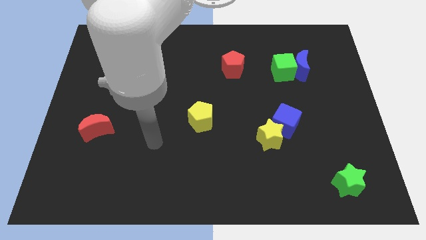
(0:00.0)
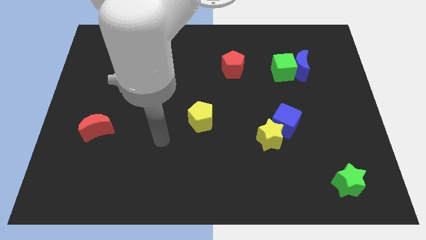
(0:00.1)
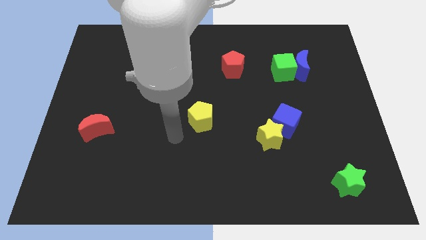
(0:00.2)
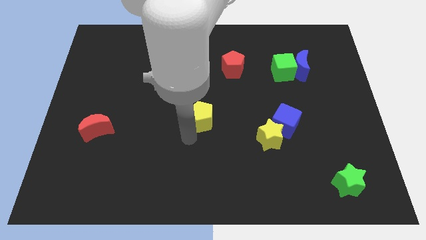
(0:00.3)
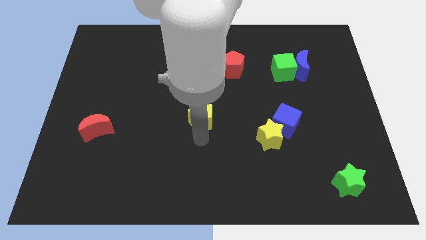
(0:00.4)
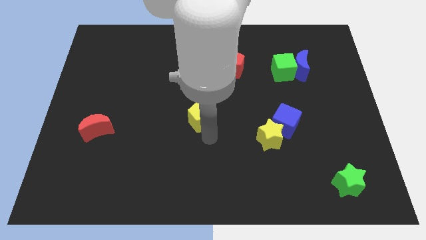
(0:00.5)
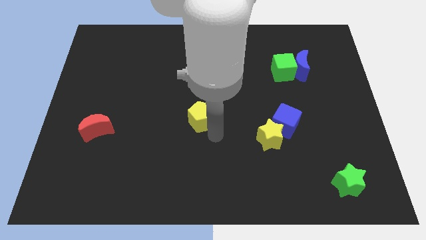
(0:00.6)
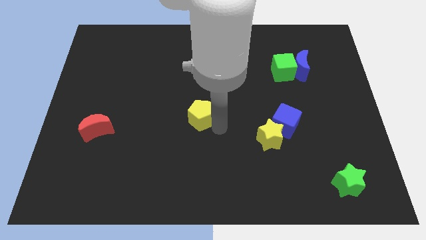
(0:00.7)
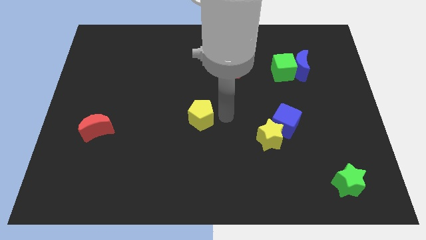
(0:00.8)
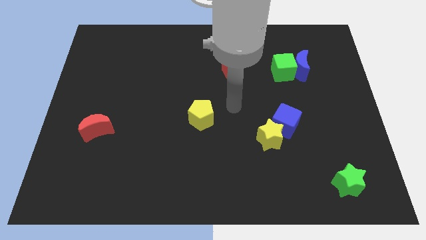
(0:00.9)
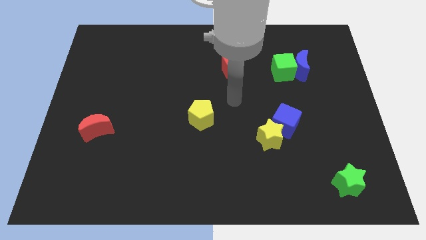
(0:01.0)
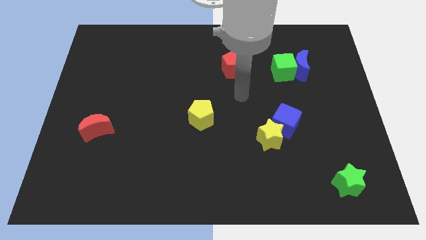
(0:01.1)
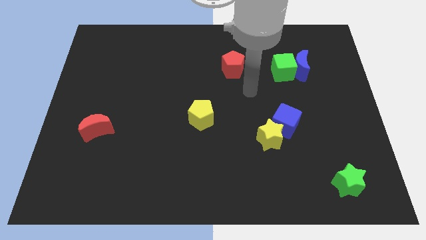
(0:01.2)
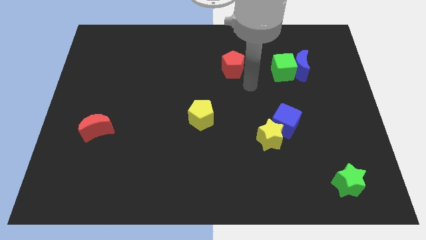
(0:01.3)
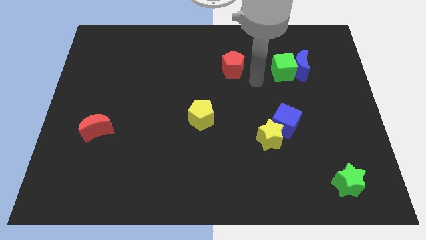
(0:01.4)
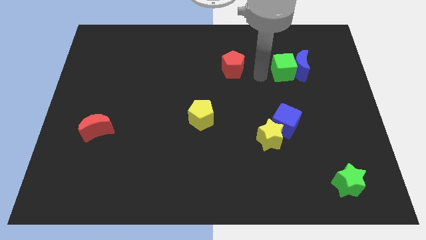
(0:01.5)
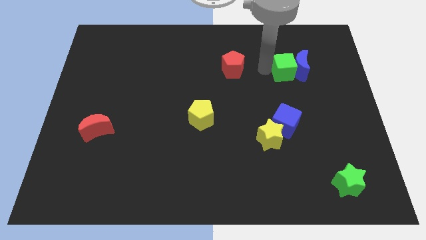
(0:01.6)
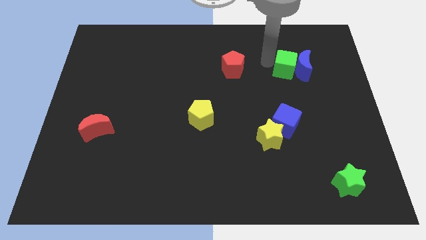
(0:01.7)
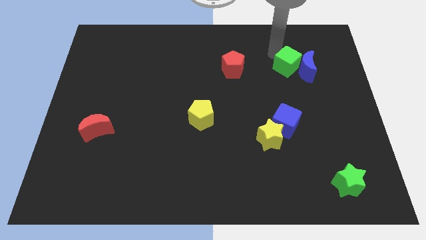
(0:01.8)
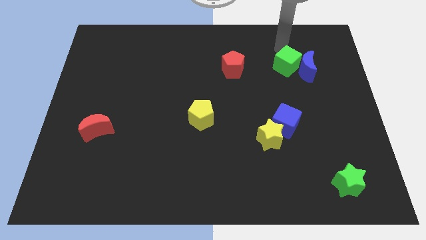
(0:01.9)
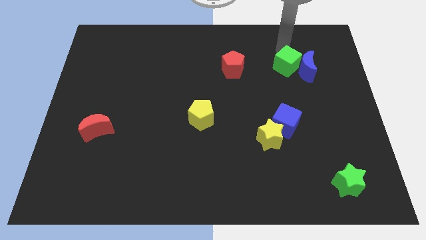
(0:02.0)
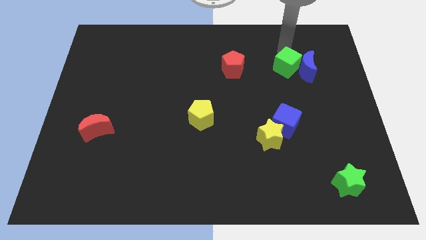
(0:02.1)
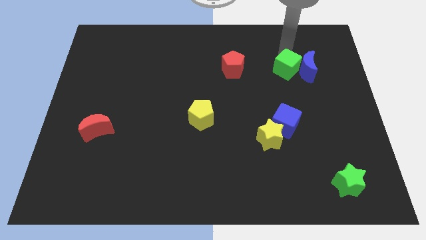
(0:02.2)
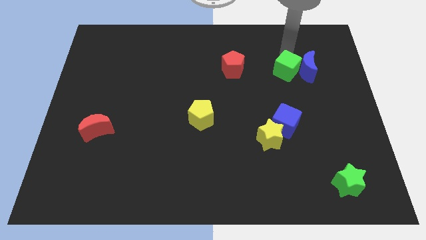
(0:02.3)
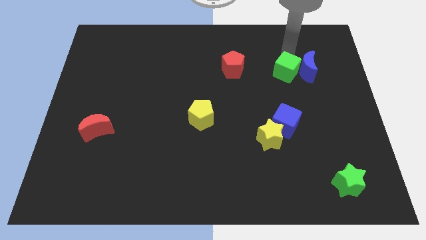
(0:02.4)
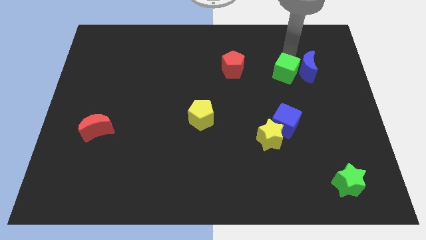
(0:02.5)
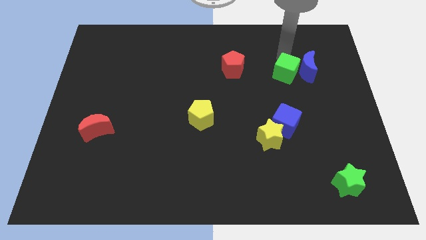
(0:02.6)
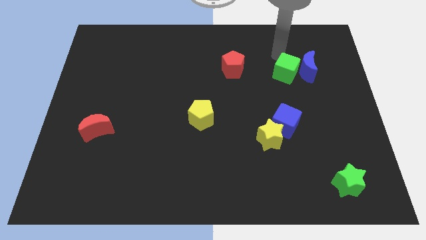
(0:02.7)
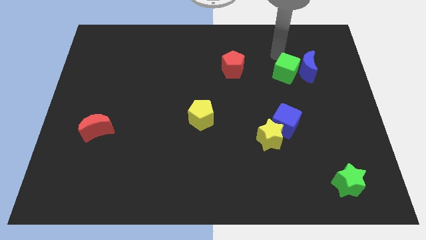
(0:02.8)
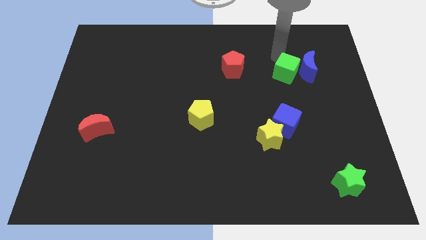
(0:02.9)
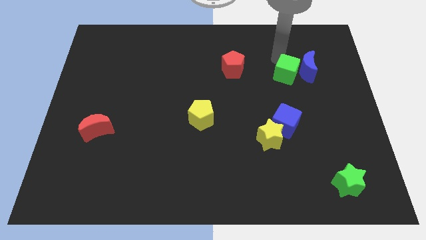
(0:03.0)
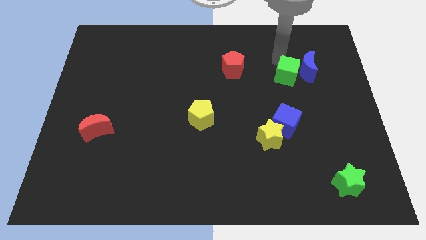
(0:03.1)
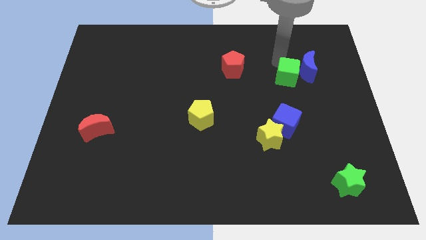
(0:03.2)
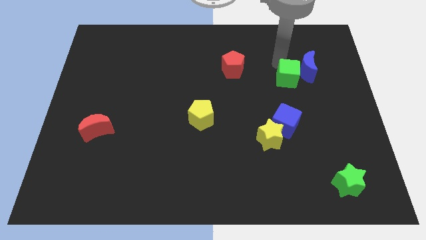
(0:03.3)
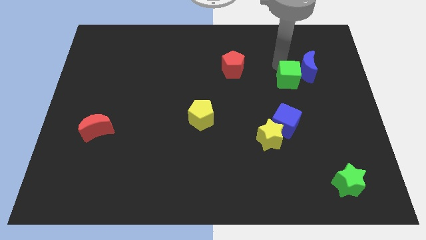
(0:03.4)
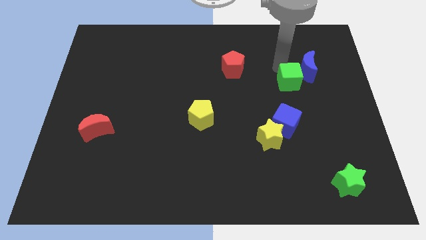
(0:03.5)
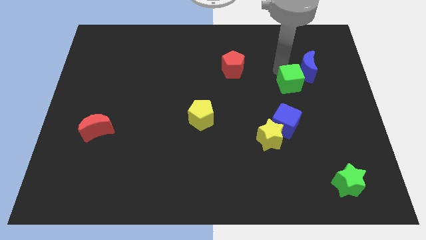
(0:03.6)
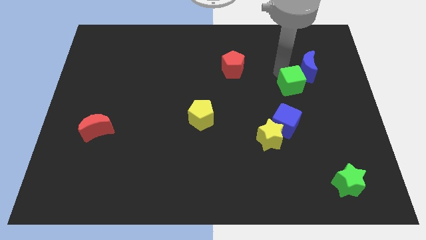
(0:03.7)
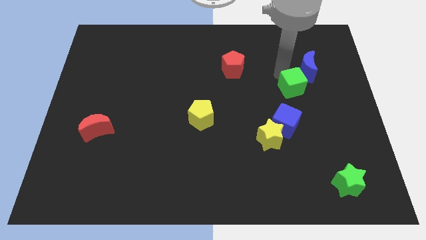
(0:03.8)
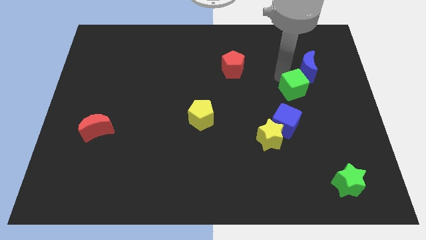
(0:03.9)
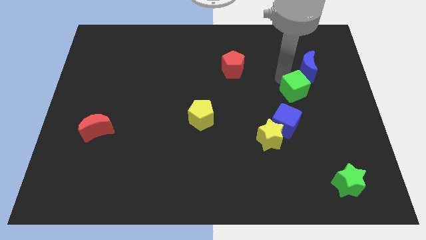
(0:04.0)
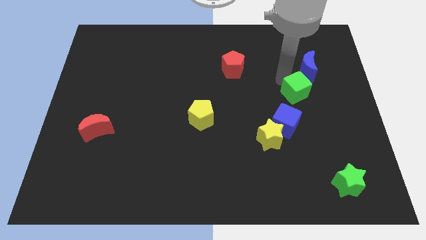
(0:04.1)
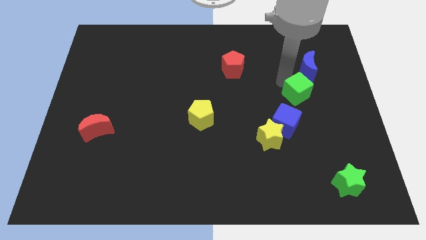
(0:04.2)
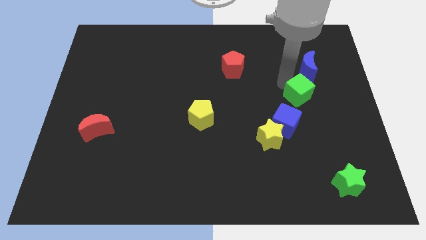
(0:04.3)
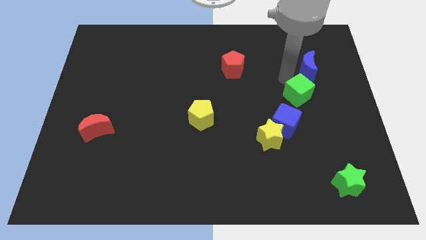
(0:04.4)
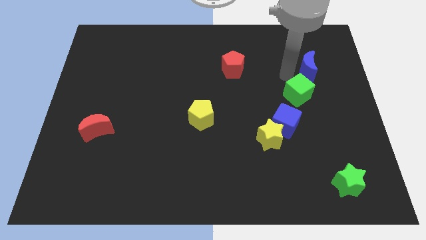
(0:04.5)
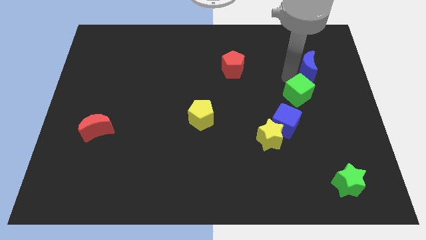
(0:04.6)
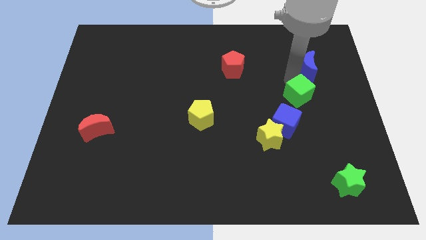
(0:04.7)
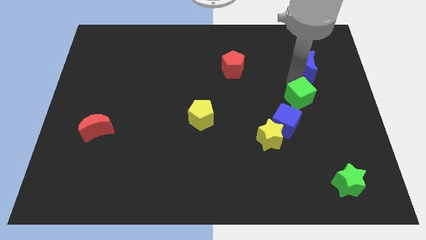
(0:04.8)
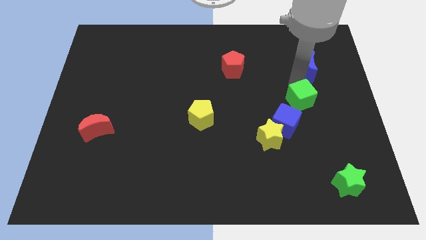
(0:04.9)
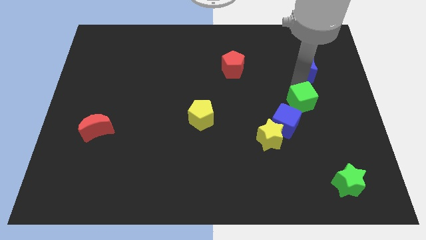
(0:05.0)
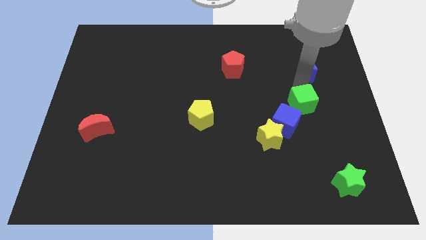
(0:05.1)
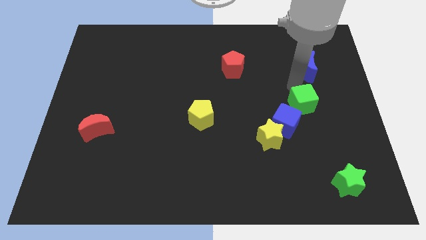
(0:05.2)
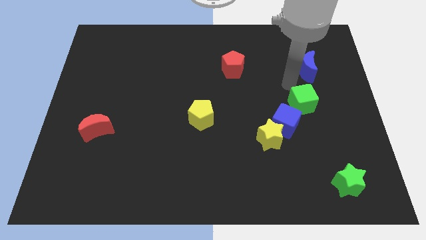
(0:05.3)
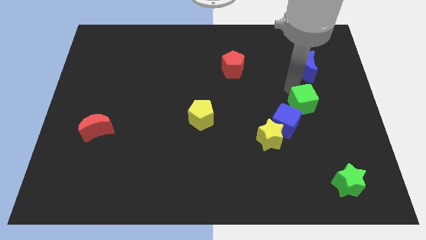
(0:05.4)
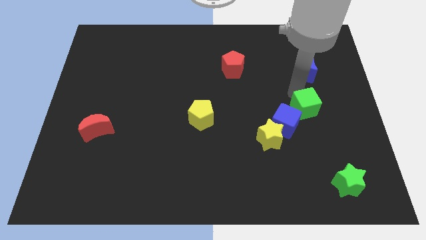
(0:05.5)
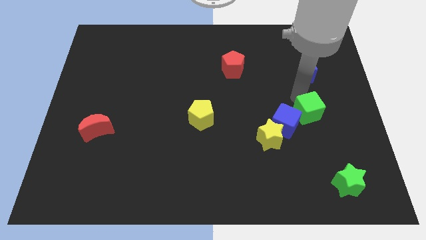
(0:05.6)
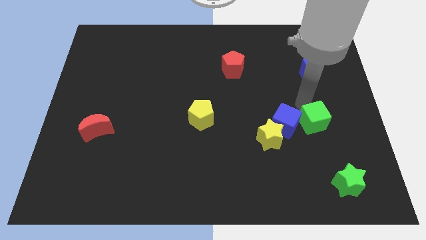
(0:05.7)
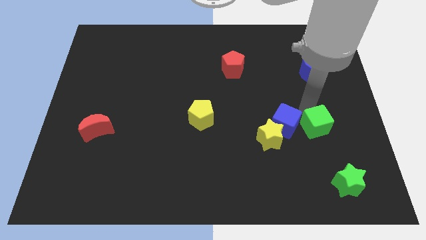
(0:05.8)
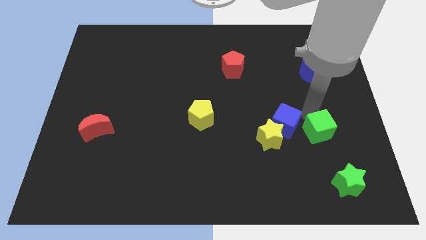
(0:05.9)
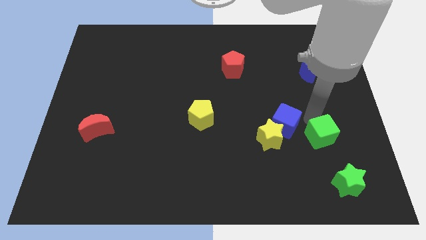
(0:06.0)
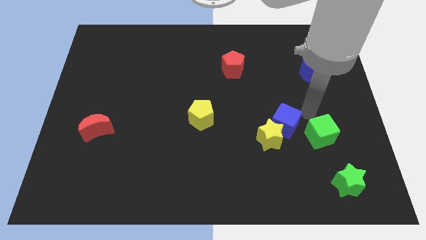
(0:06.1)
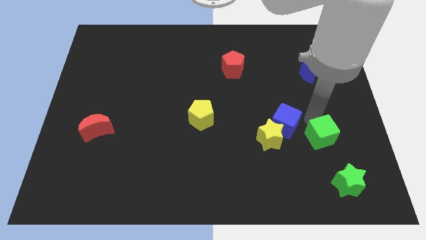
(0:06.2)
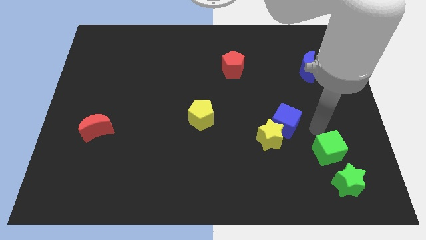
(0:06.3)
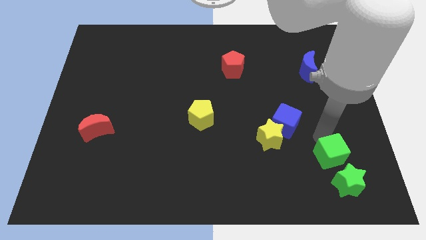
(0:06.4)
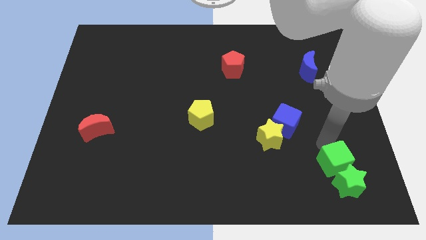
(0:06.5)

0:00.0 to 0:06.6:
move the green cube to the green star

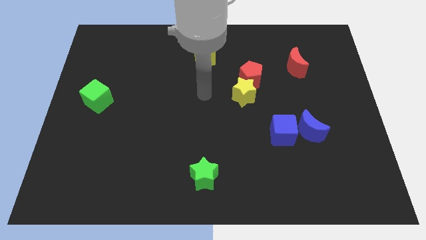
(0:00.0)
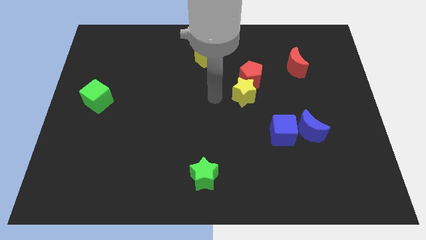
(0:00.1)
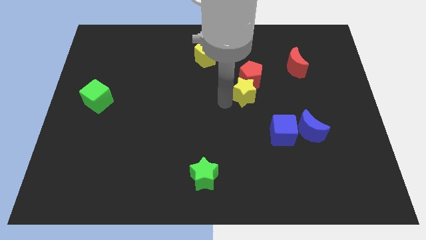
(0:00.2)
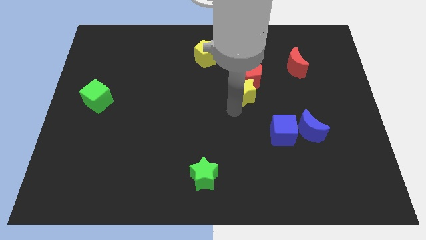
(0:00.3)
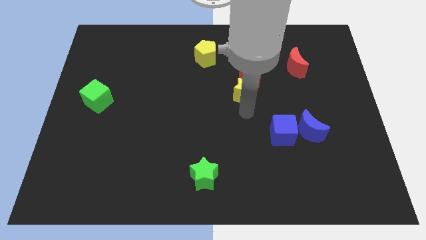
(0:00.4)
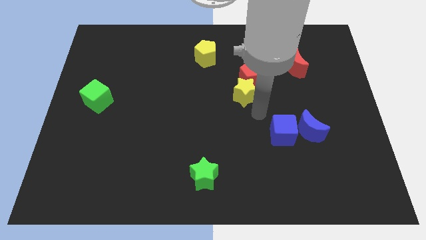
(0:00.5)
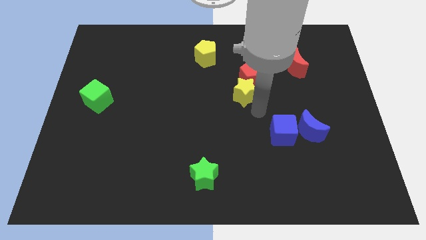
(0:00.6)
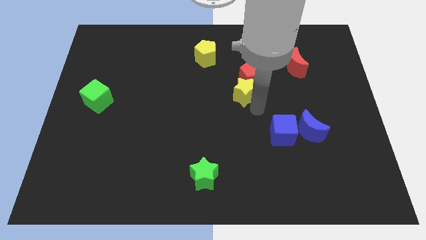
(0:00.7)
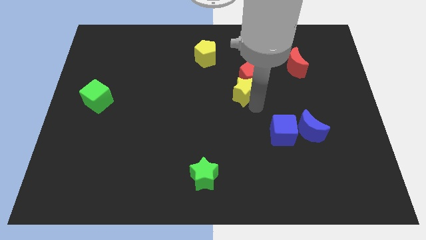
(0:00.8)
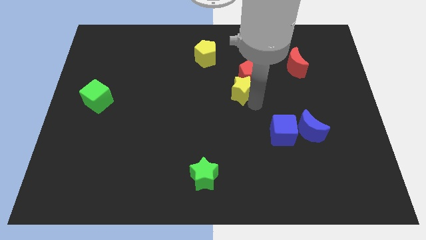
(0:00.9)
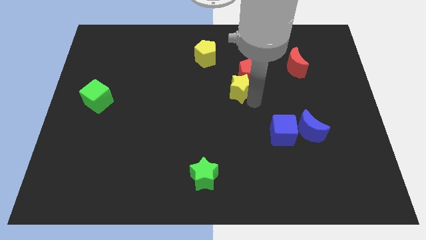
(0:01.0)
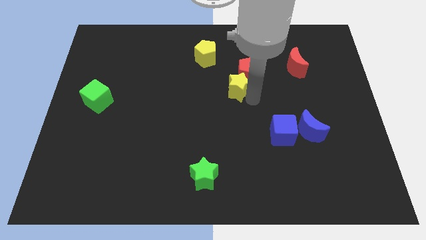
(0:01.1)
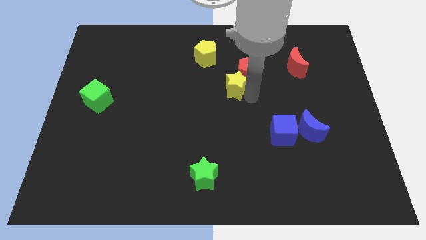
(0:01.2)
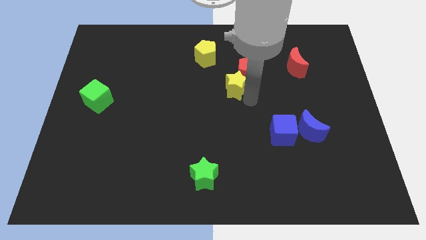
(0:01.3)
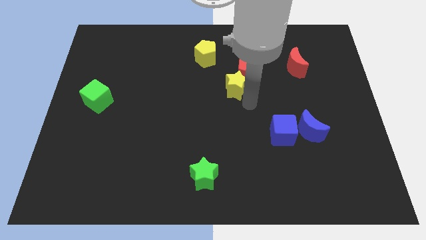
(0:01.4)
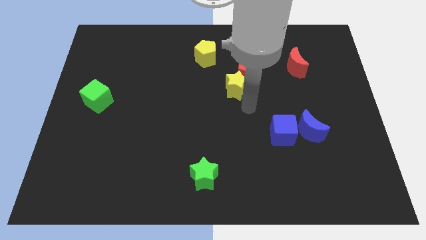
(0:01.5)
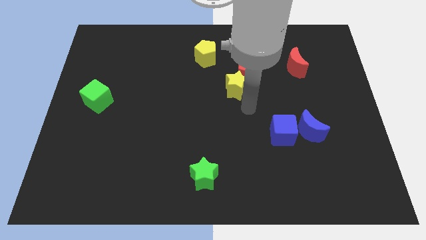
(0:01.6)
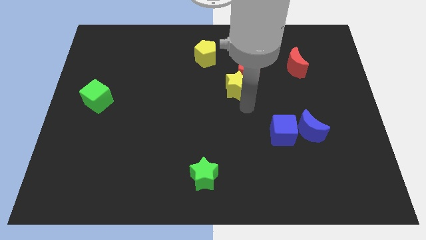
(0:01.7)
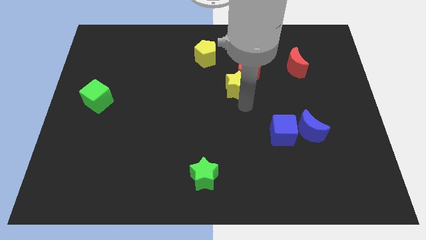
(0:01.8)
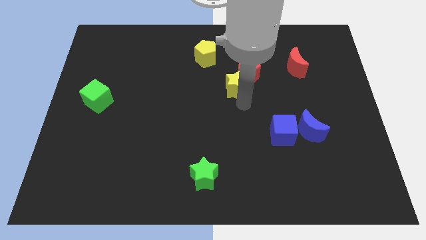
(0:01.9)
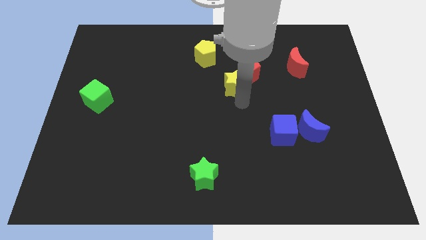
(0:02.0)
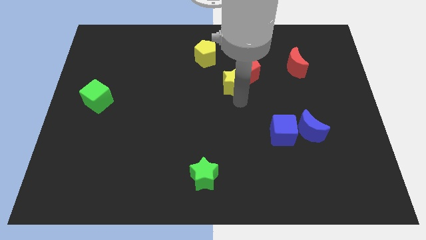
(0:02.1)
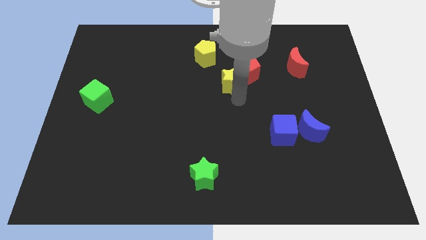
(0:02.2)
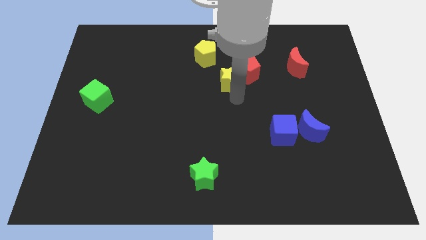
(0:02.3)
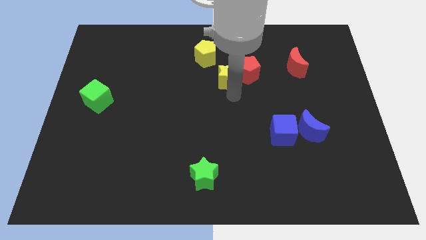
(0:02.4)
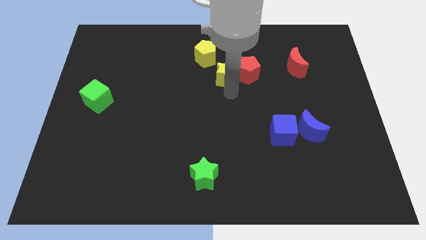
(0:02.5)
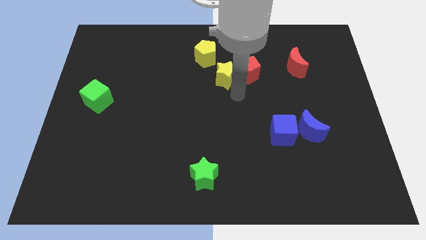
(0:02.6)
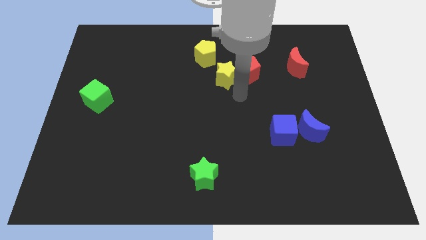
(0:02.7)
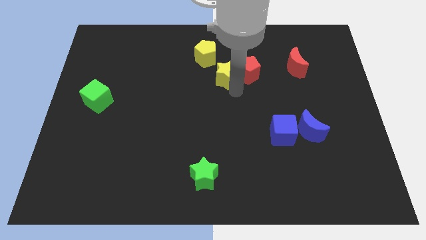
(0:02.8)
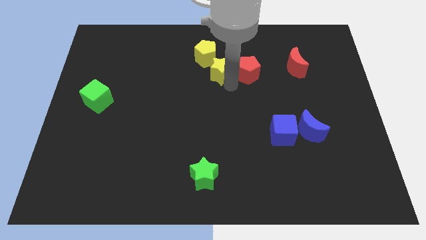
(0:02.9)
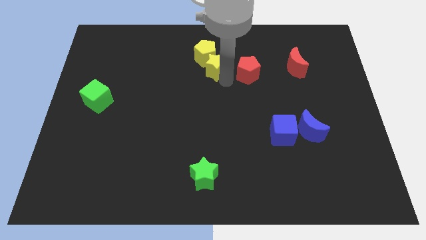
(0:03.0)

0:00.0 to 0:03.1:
slide the yellow star close to the yellow pentagon
